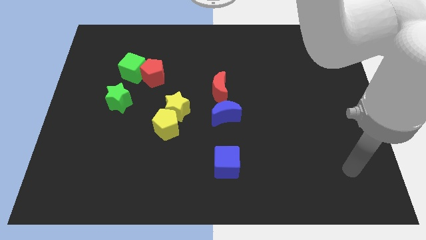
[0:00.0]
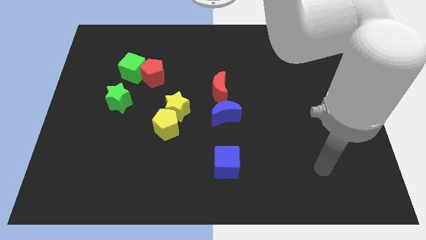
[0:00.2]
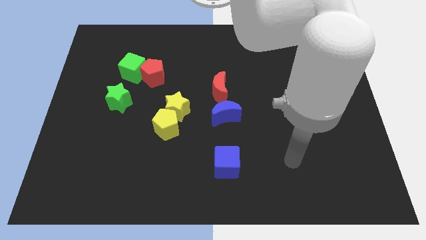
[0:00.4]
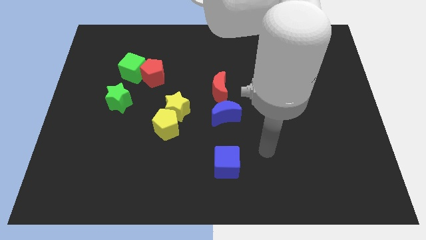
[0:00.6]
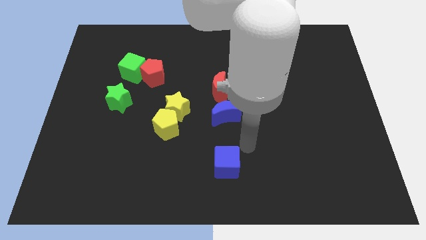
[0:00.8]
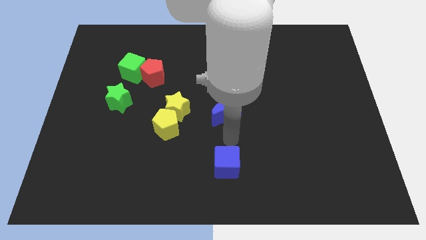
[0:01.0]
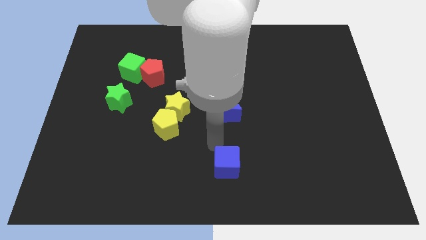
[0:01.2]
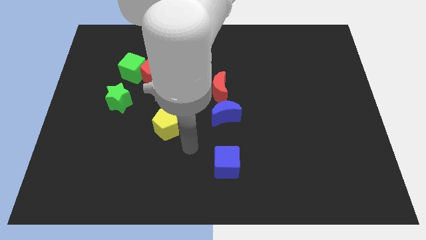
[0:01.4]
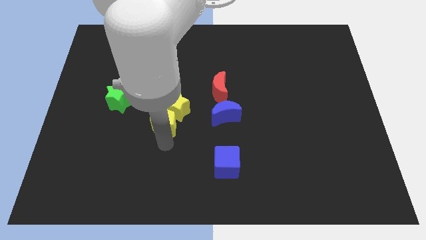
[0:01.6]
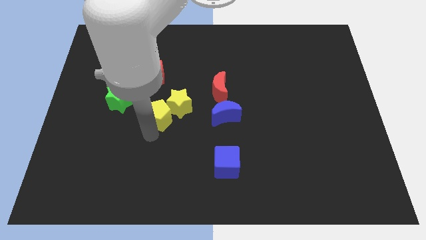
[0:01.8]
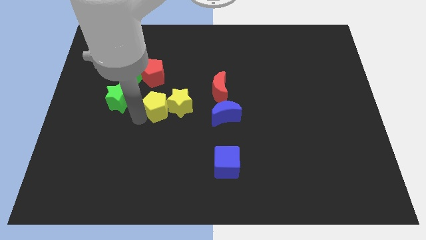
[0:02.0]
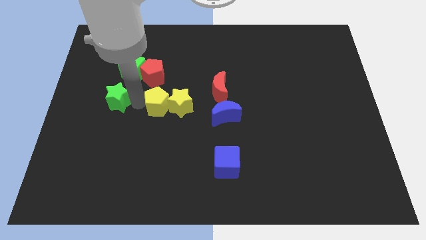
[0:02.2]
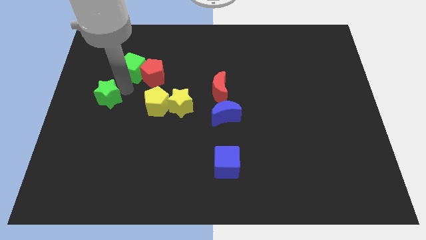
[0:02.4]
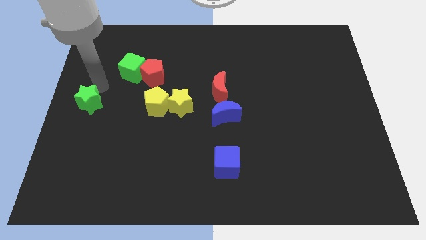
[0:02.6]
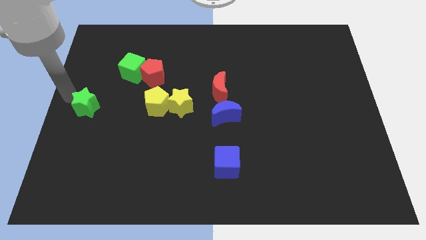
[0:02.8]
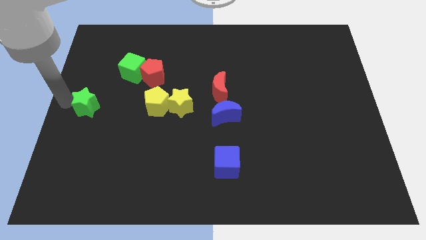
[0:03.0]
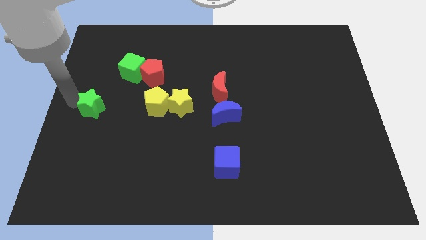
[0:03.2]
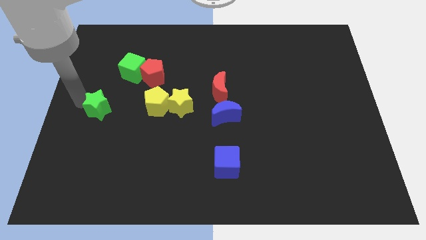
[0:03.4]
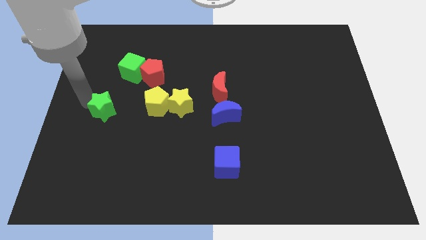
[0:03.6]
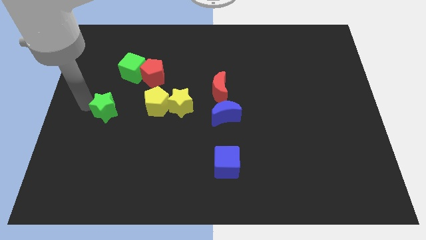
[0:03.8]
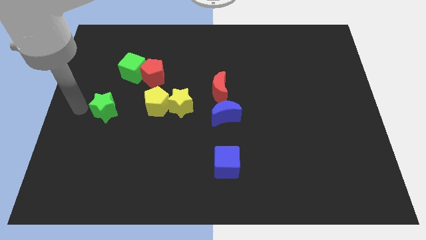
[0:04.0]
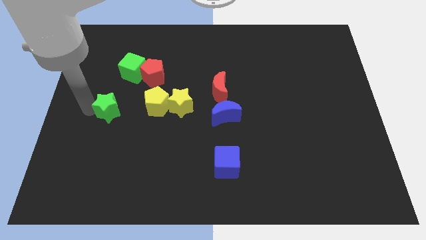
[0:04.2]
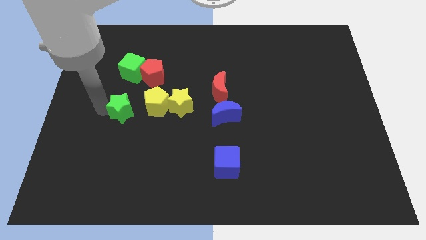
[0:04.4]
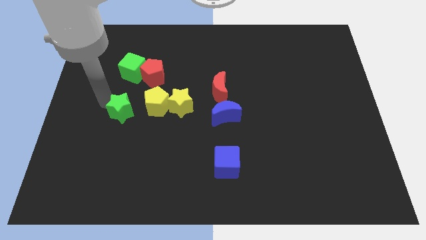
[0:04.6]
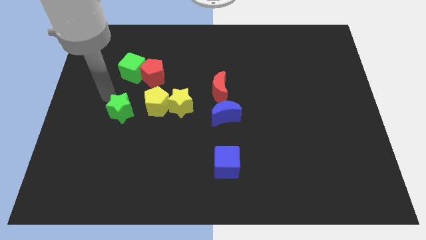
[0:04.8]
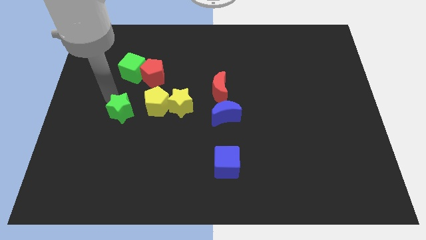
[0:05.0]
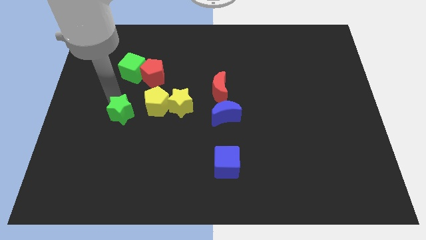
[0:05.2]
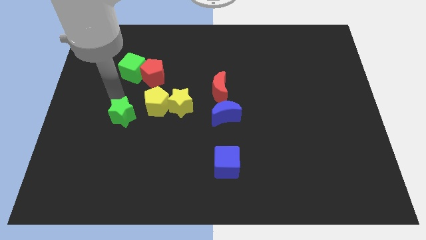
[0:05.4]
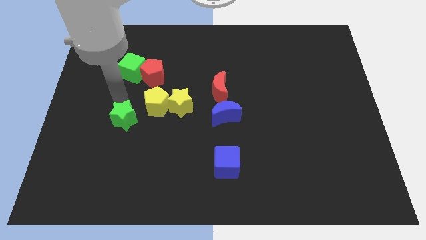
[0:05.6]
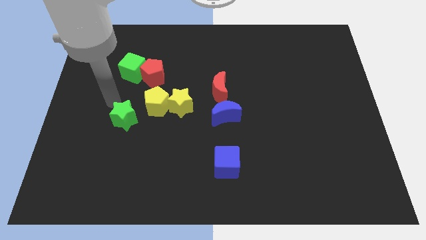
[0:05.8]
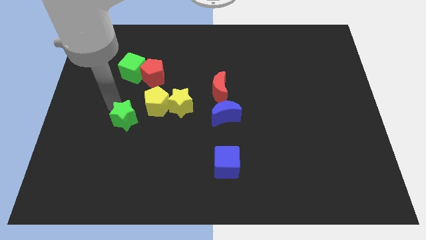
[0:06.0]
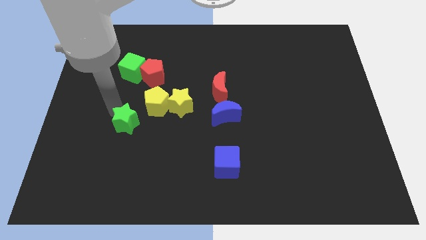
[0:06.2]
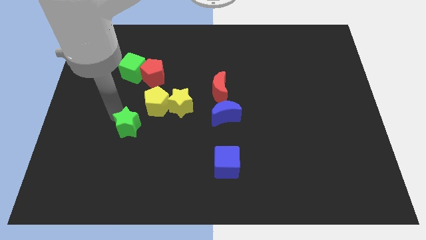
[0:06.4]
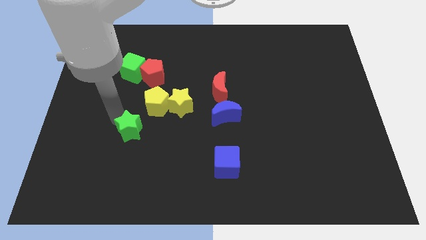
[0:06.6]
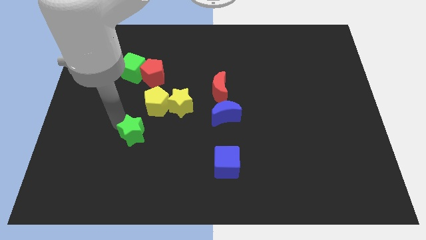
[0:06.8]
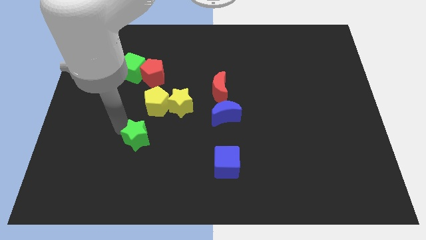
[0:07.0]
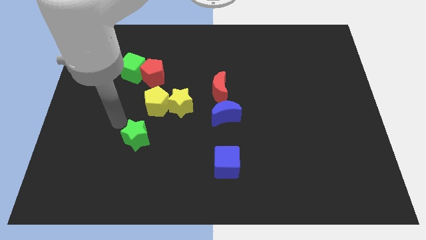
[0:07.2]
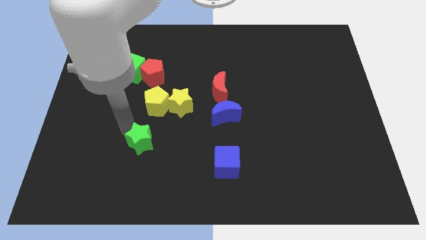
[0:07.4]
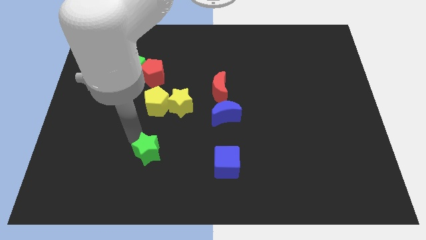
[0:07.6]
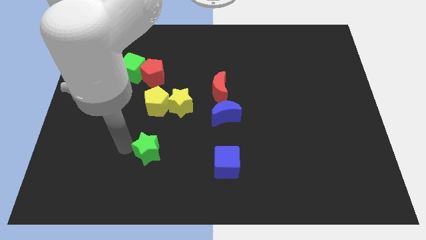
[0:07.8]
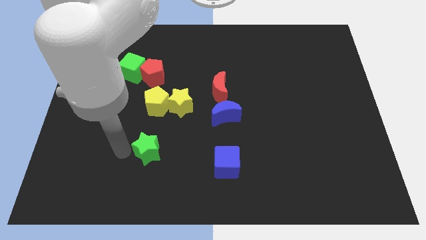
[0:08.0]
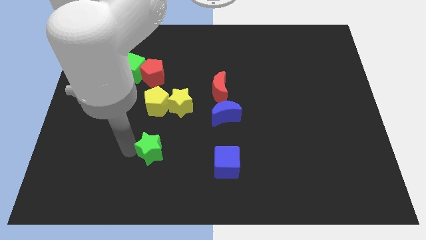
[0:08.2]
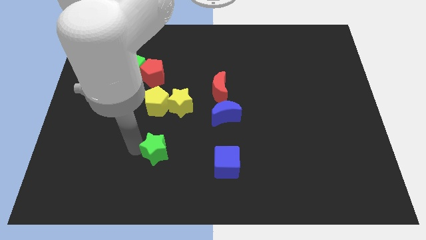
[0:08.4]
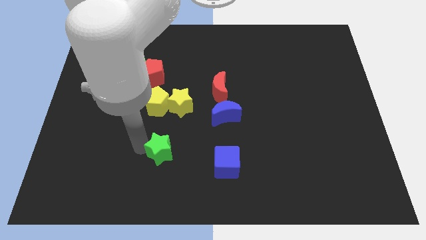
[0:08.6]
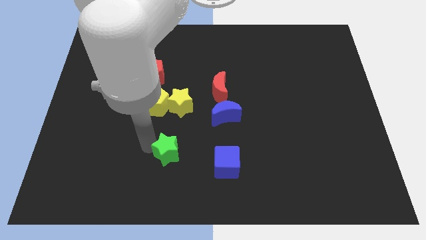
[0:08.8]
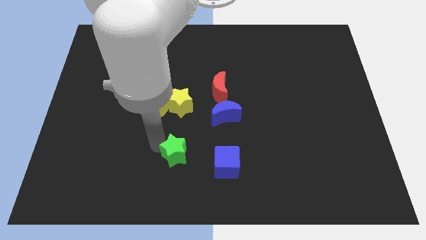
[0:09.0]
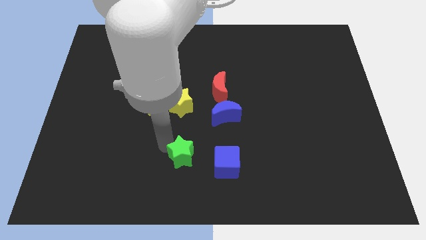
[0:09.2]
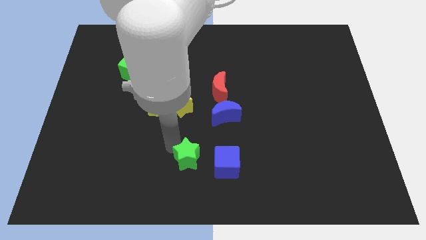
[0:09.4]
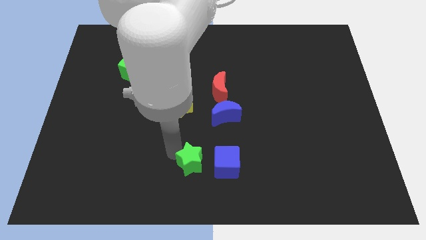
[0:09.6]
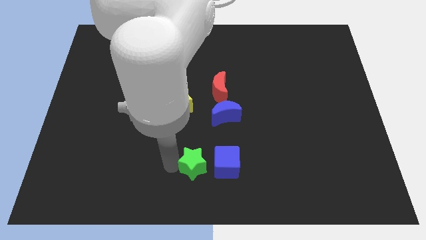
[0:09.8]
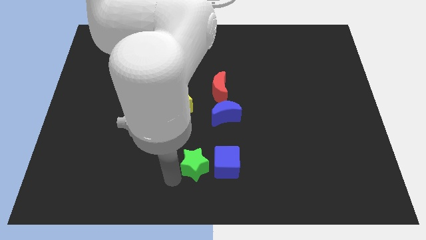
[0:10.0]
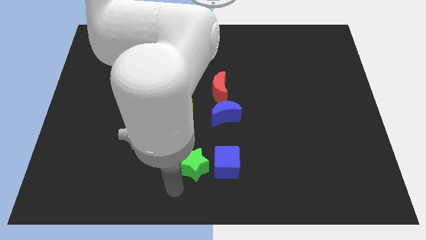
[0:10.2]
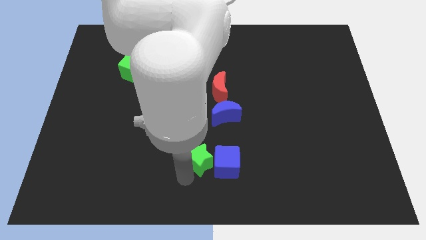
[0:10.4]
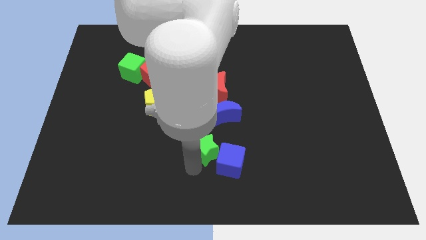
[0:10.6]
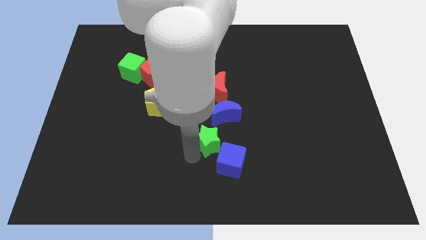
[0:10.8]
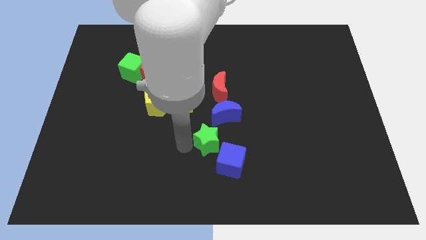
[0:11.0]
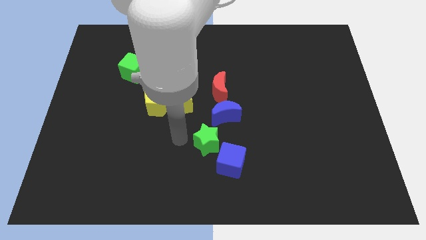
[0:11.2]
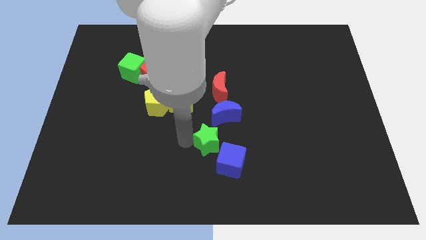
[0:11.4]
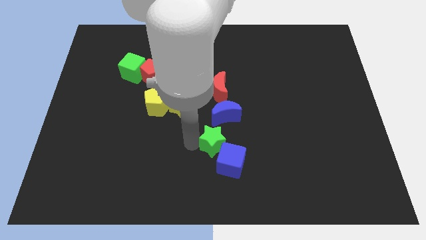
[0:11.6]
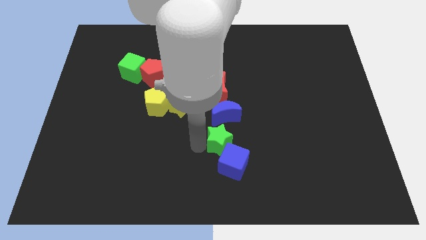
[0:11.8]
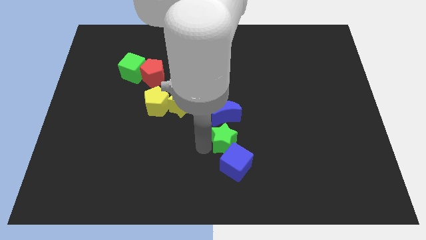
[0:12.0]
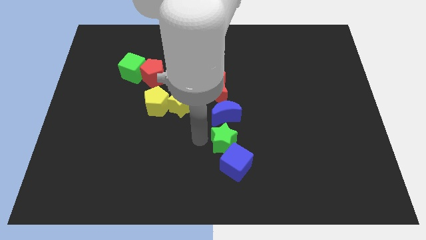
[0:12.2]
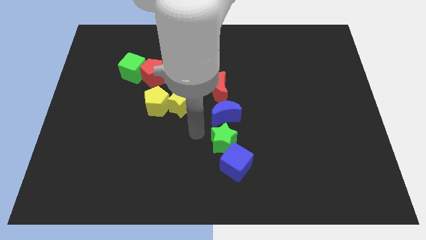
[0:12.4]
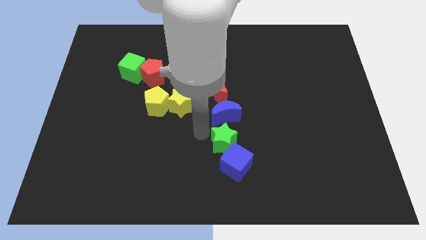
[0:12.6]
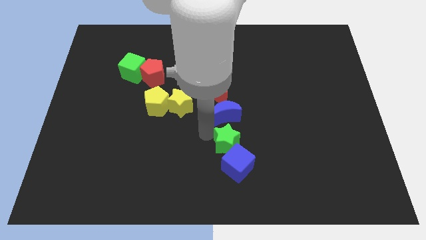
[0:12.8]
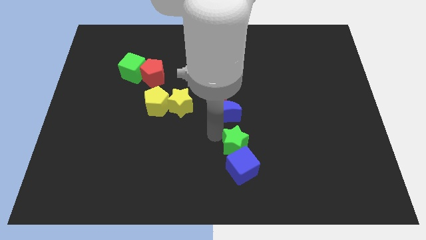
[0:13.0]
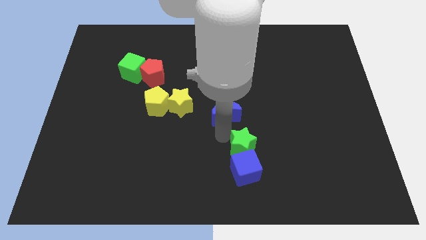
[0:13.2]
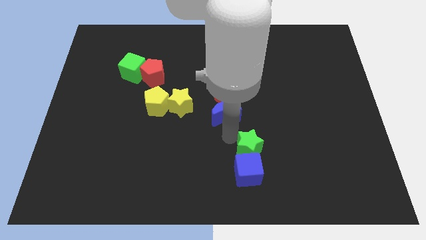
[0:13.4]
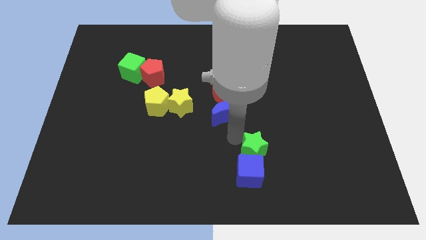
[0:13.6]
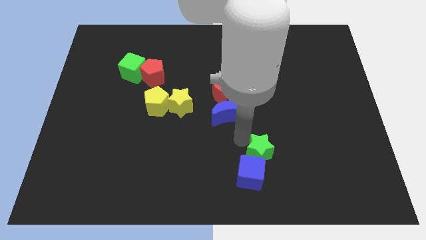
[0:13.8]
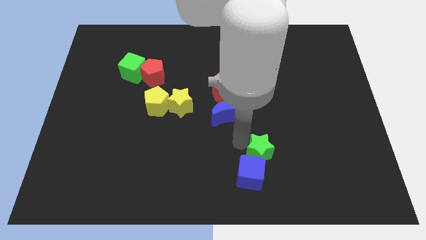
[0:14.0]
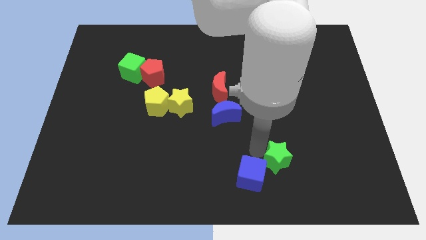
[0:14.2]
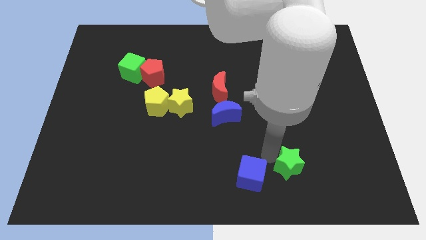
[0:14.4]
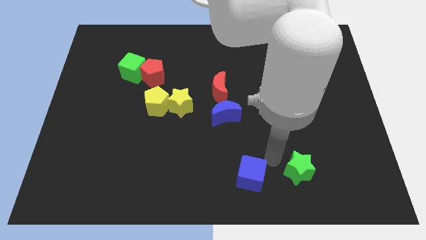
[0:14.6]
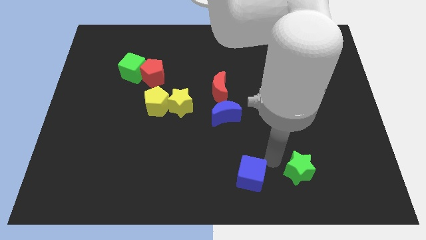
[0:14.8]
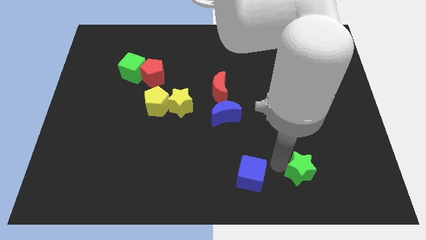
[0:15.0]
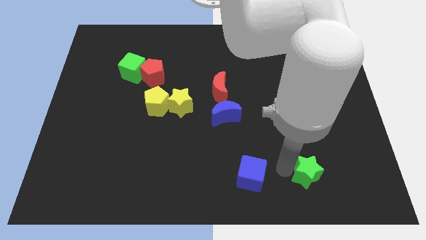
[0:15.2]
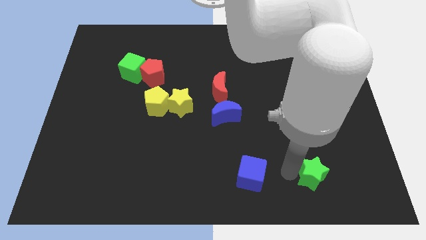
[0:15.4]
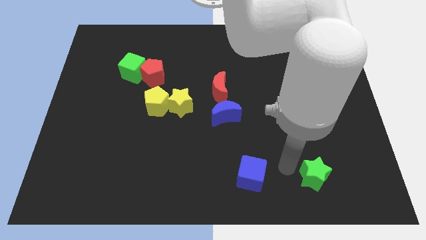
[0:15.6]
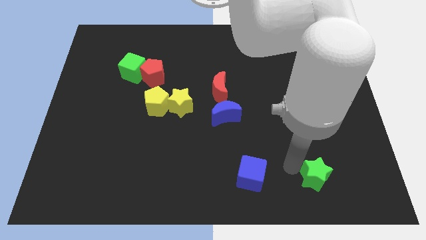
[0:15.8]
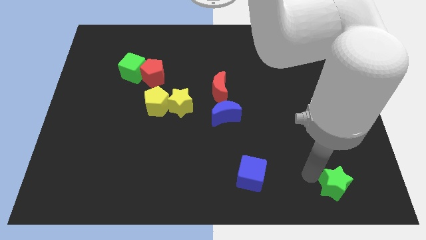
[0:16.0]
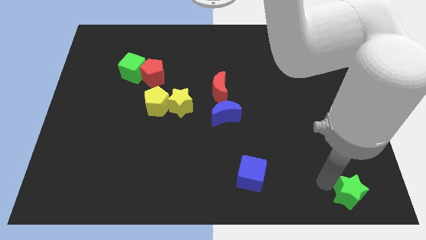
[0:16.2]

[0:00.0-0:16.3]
move the green star to the bottom right corner
